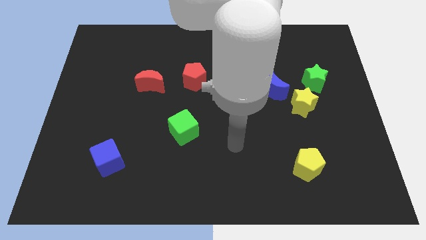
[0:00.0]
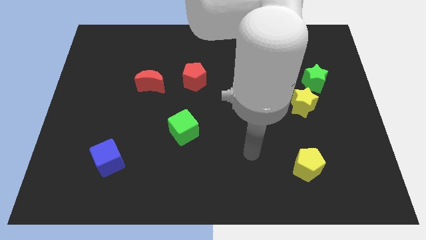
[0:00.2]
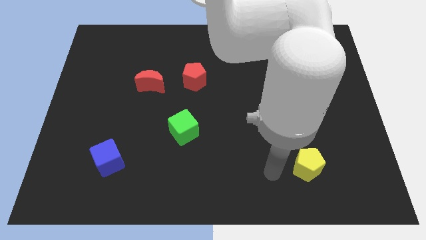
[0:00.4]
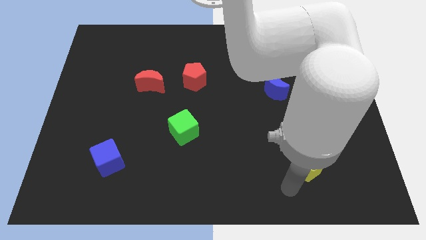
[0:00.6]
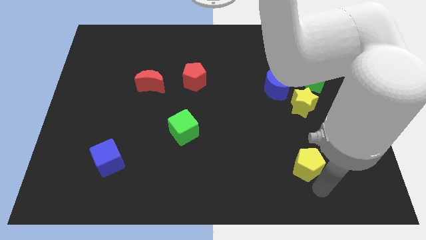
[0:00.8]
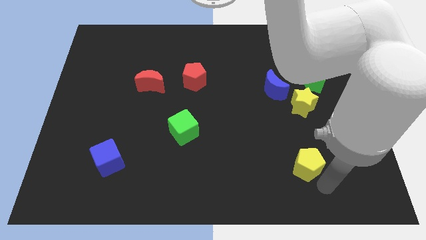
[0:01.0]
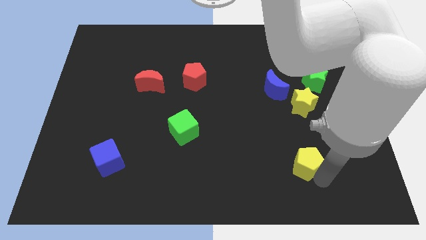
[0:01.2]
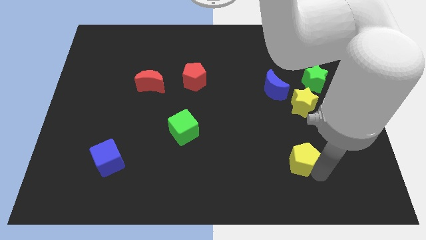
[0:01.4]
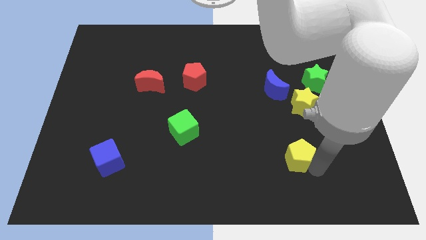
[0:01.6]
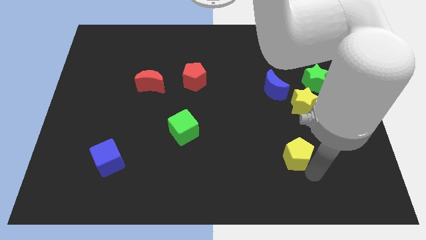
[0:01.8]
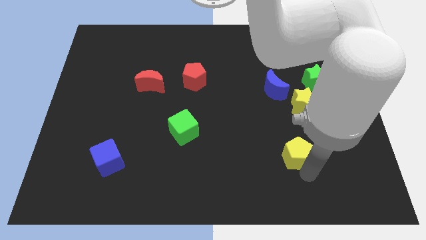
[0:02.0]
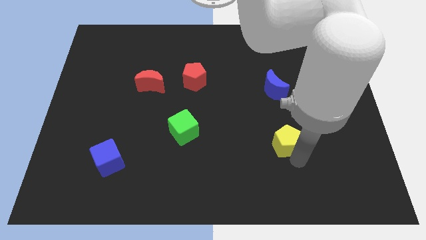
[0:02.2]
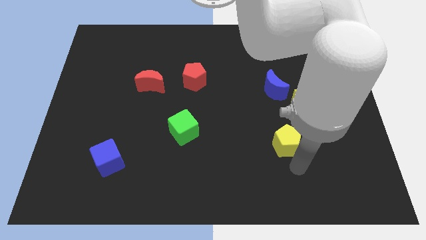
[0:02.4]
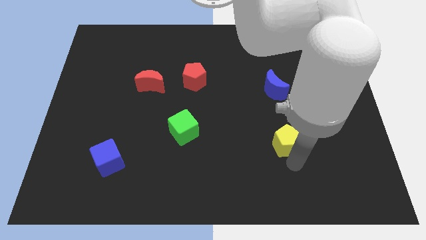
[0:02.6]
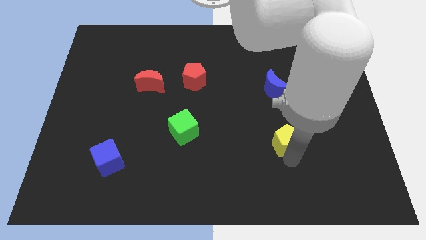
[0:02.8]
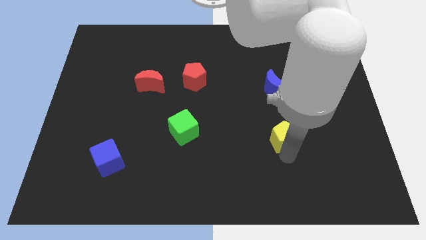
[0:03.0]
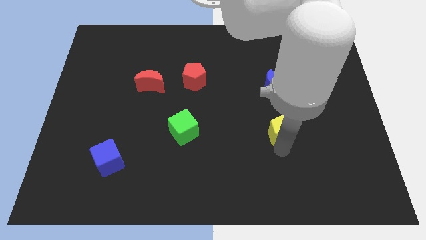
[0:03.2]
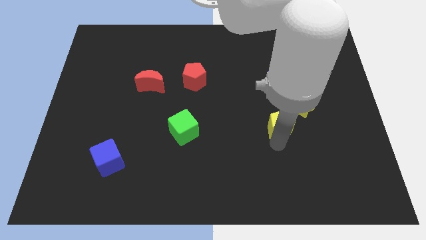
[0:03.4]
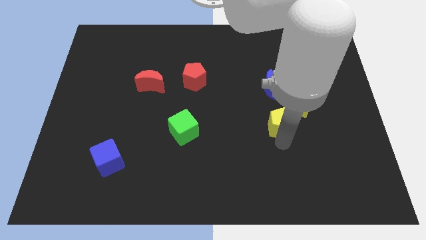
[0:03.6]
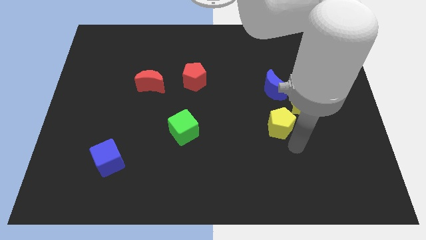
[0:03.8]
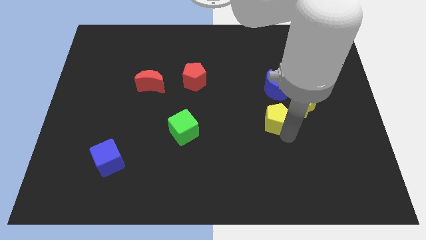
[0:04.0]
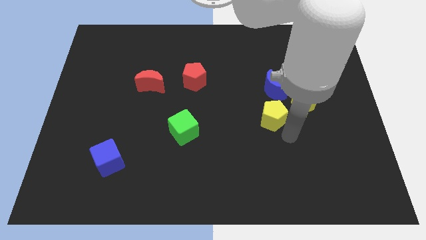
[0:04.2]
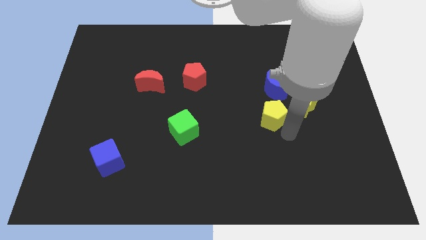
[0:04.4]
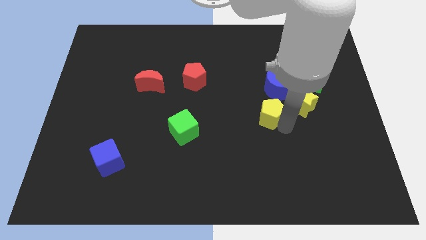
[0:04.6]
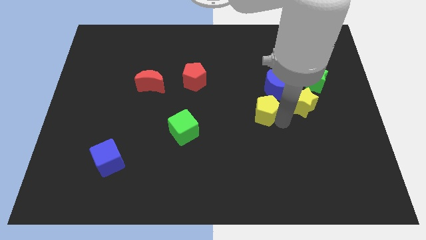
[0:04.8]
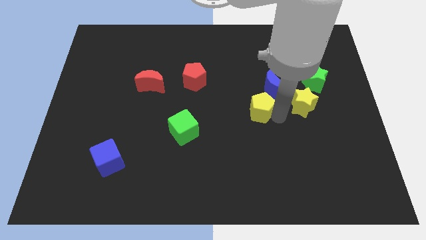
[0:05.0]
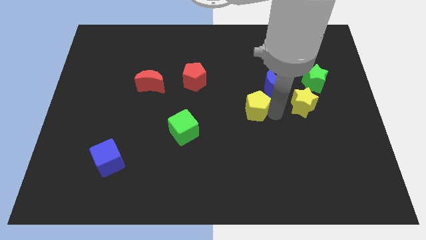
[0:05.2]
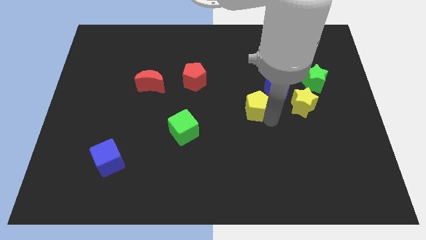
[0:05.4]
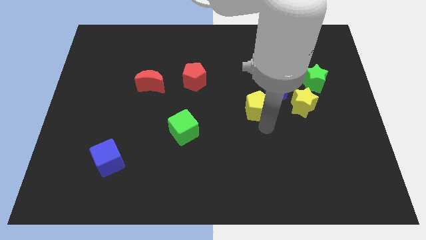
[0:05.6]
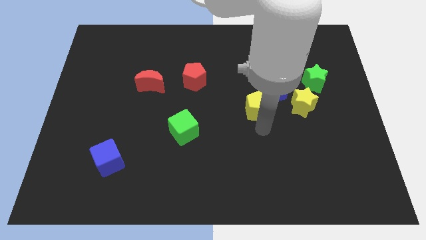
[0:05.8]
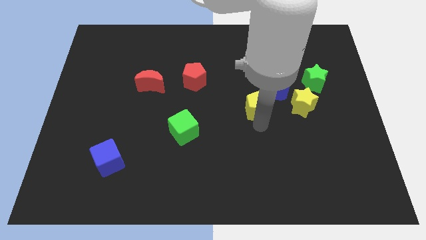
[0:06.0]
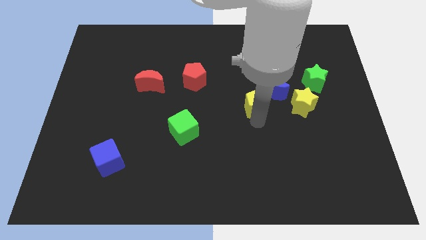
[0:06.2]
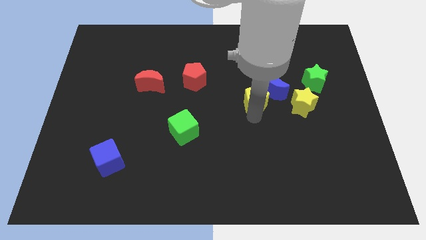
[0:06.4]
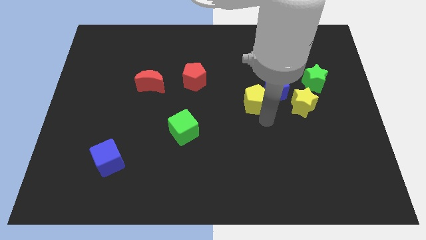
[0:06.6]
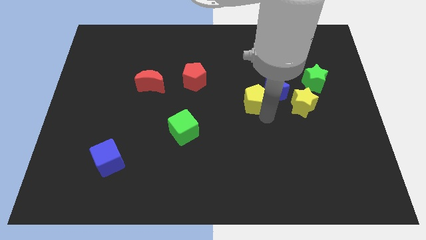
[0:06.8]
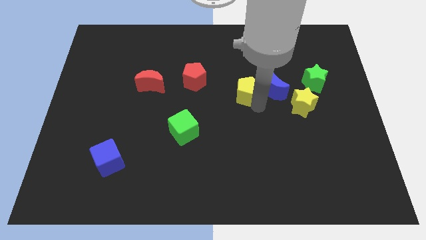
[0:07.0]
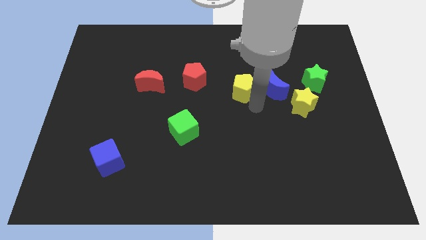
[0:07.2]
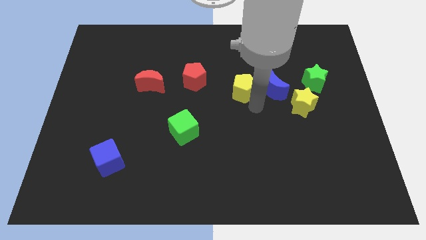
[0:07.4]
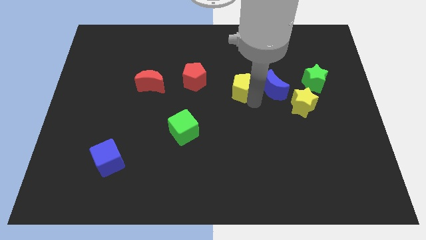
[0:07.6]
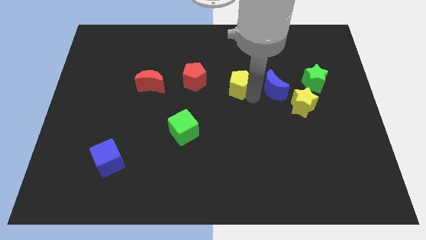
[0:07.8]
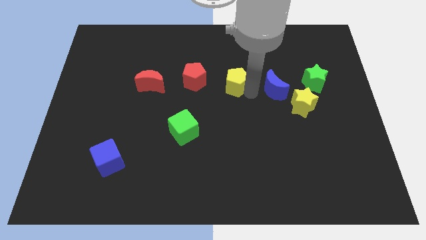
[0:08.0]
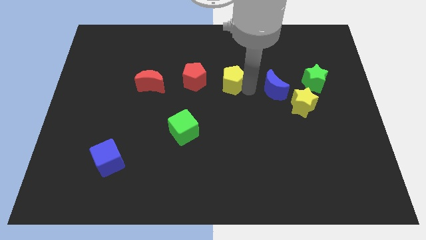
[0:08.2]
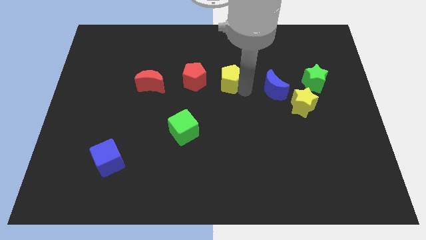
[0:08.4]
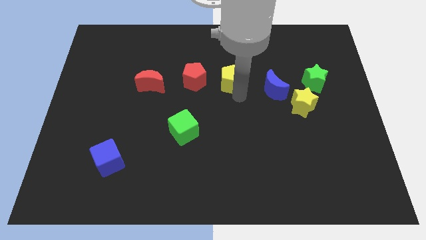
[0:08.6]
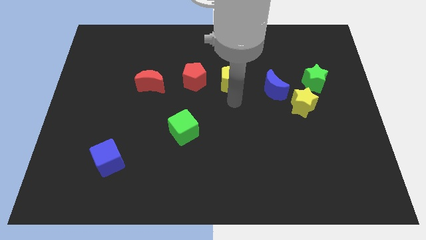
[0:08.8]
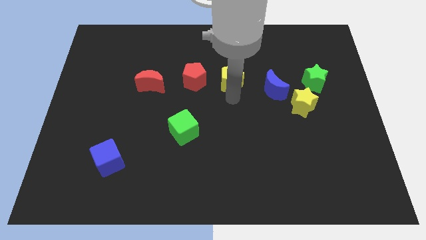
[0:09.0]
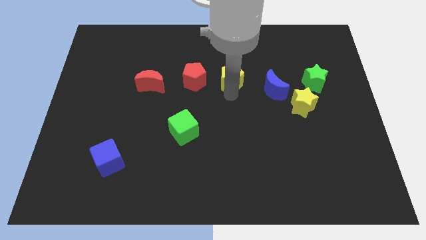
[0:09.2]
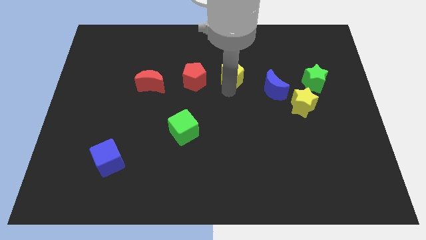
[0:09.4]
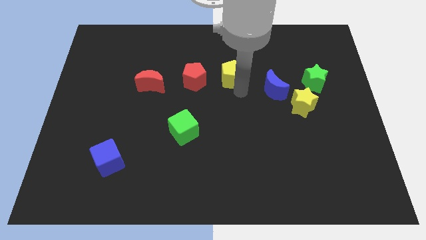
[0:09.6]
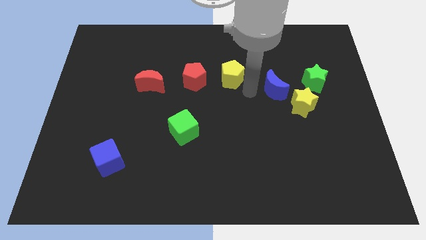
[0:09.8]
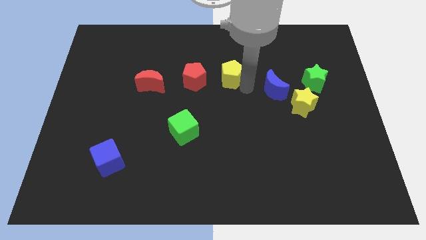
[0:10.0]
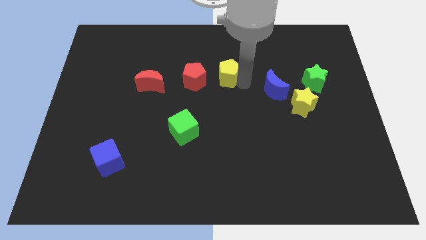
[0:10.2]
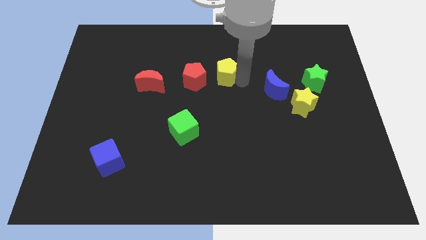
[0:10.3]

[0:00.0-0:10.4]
slide the yellow pentagon to the top right of the red pentagon

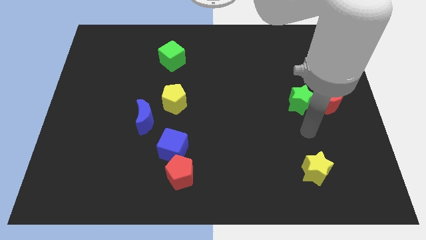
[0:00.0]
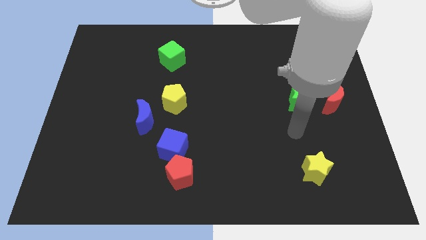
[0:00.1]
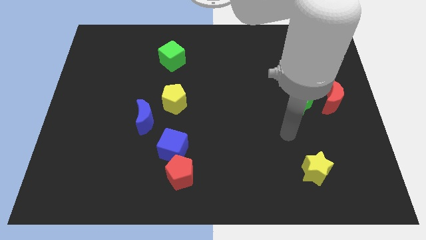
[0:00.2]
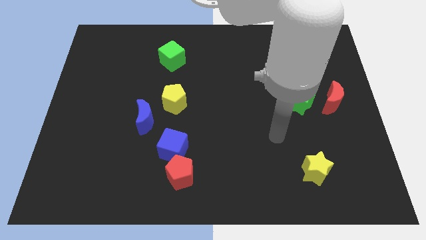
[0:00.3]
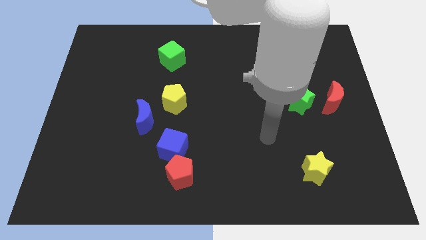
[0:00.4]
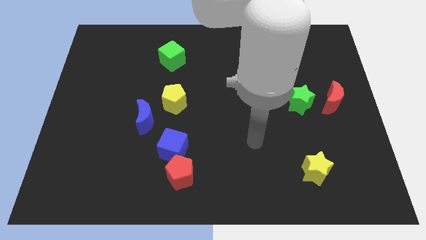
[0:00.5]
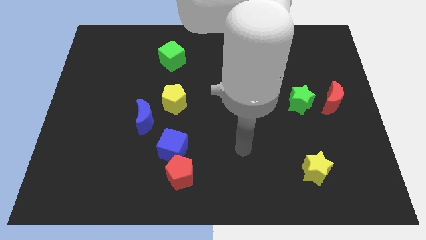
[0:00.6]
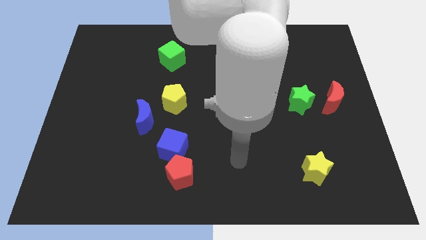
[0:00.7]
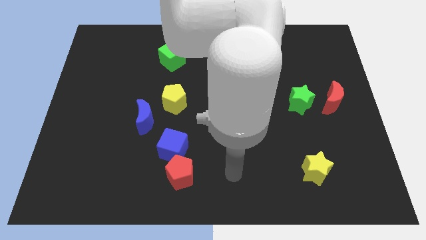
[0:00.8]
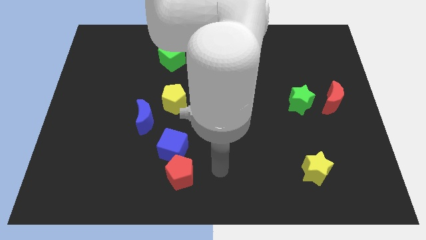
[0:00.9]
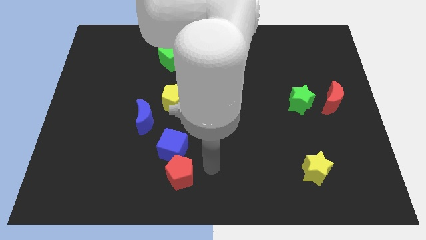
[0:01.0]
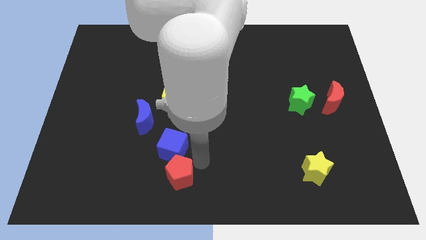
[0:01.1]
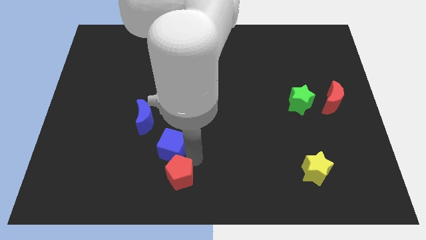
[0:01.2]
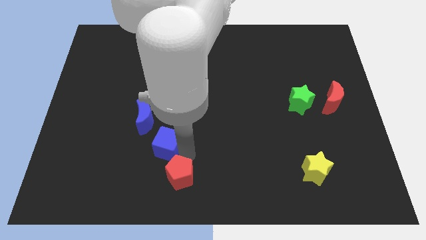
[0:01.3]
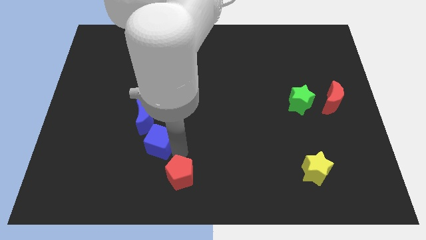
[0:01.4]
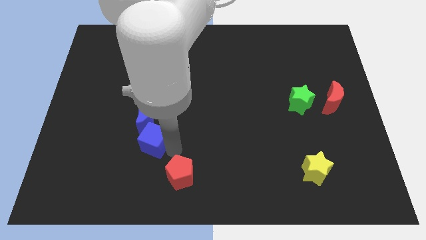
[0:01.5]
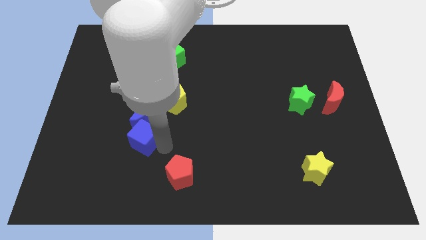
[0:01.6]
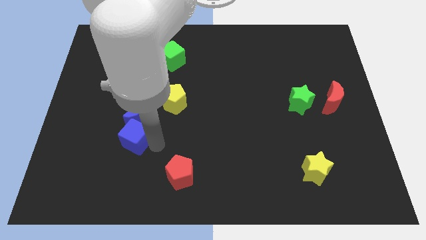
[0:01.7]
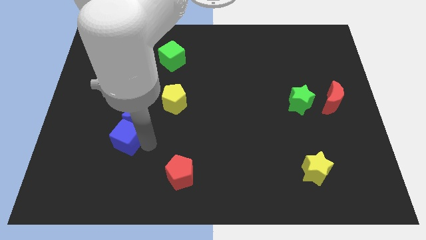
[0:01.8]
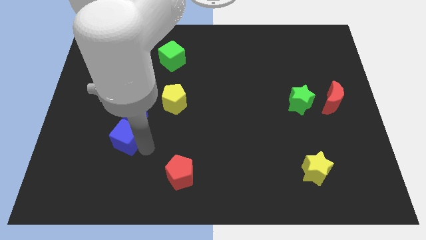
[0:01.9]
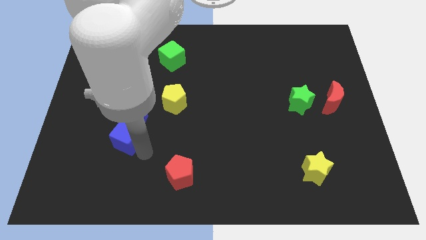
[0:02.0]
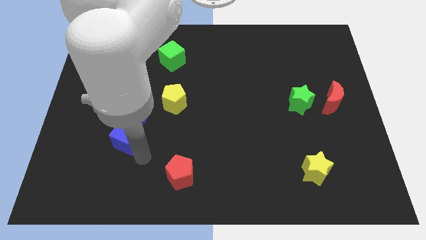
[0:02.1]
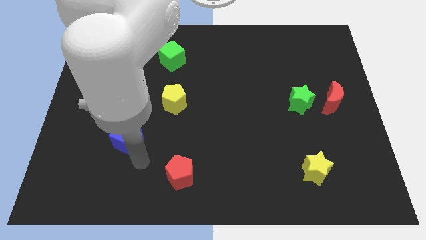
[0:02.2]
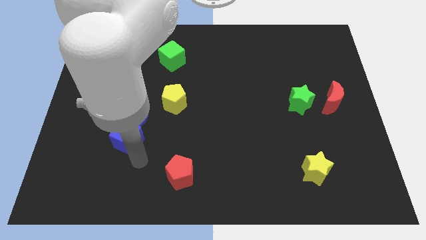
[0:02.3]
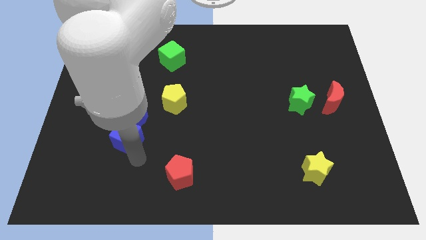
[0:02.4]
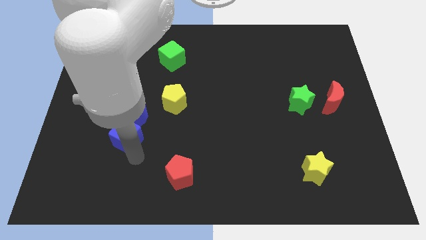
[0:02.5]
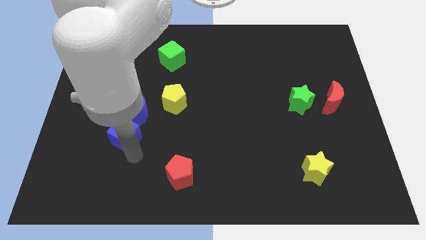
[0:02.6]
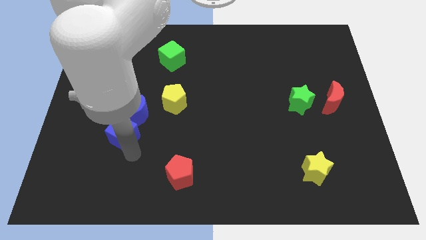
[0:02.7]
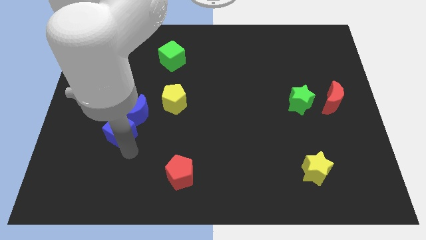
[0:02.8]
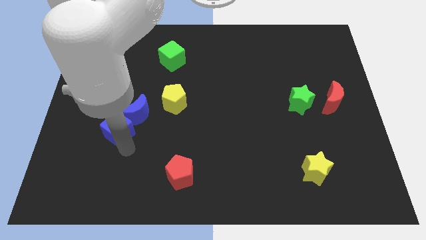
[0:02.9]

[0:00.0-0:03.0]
move the blue cube to the left side of the blue moon
